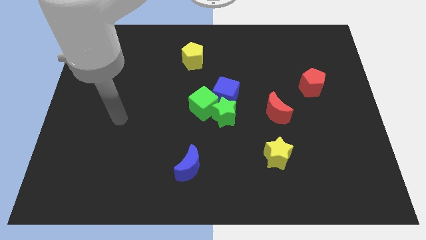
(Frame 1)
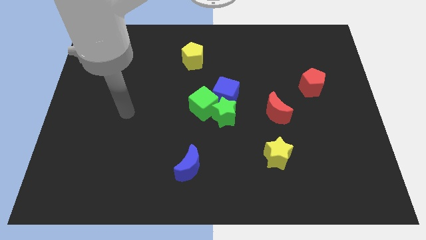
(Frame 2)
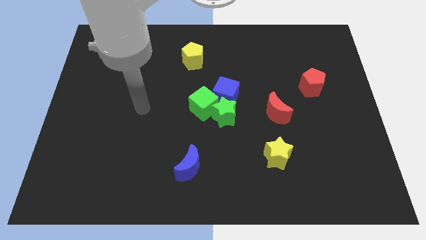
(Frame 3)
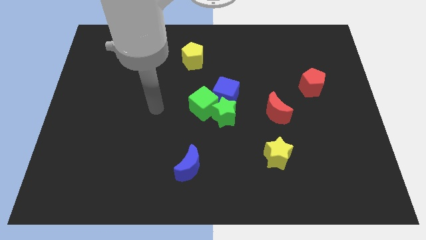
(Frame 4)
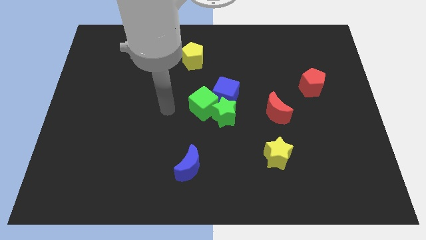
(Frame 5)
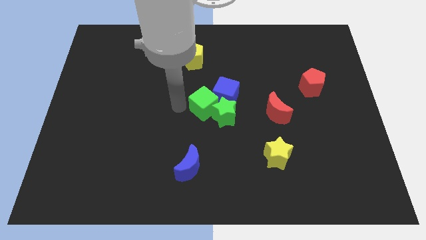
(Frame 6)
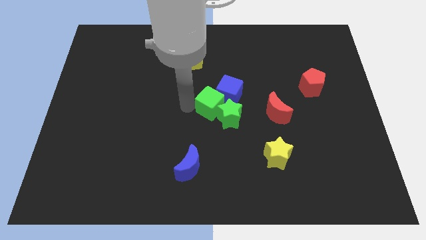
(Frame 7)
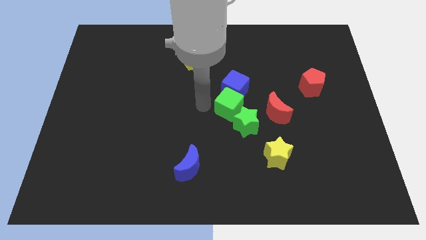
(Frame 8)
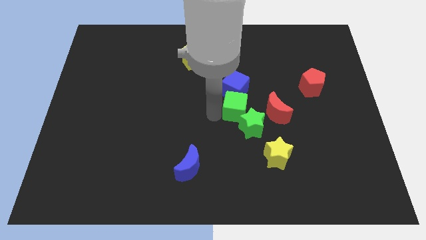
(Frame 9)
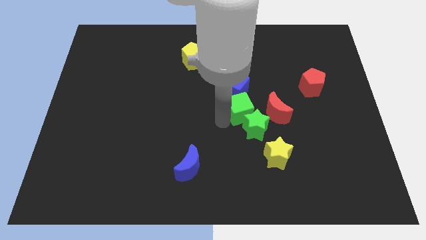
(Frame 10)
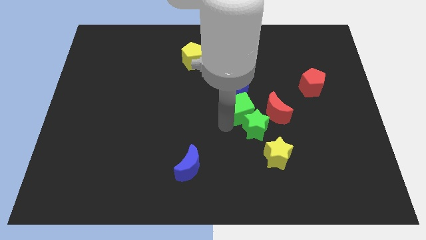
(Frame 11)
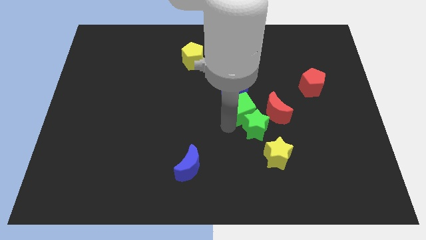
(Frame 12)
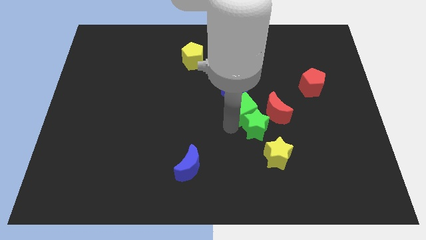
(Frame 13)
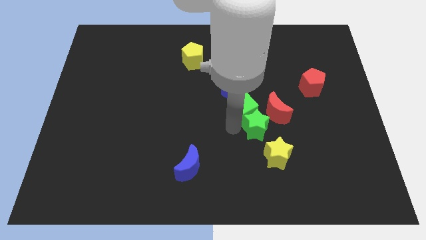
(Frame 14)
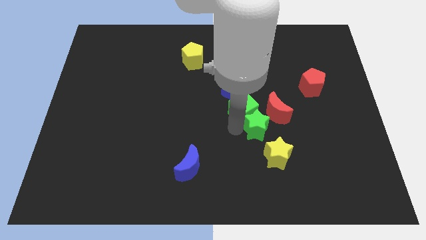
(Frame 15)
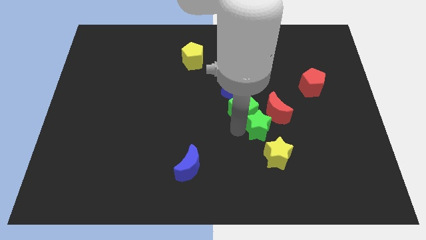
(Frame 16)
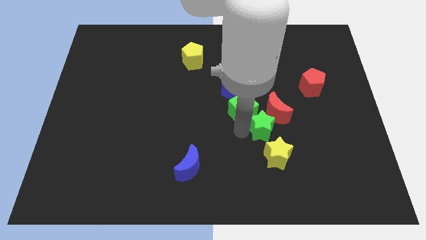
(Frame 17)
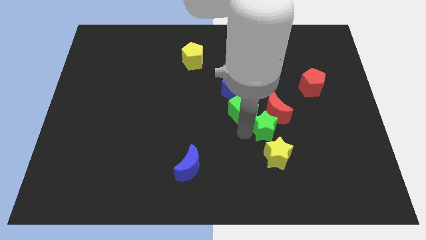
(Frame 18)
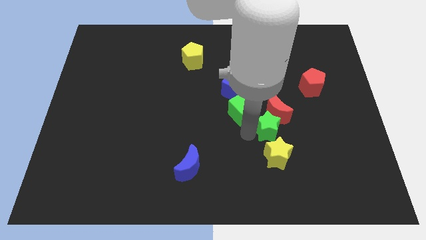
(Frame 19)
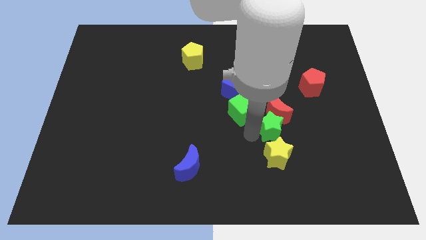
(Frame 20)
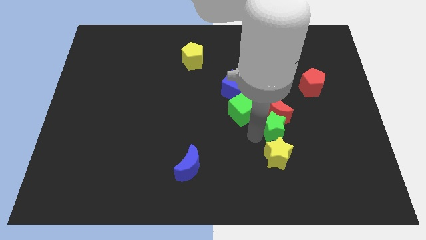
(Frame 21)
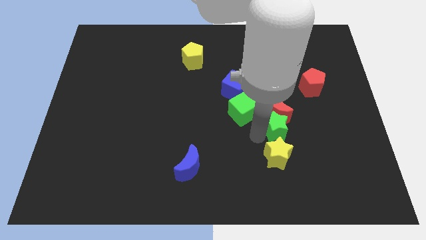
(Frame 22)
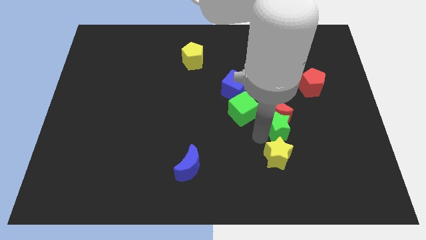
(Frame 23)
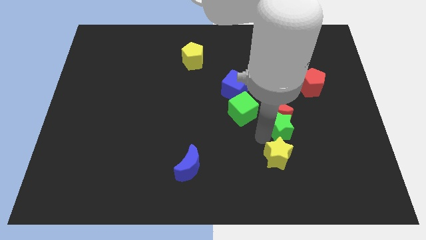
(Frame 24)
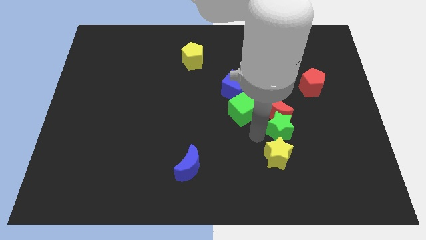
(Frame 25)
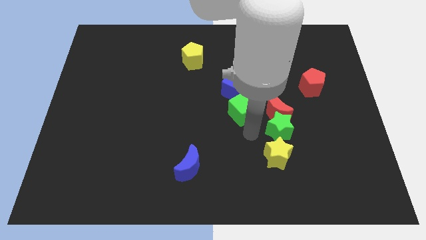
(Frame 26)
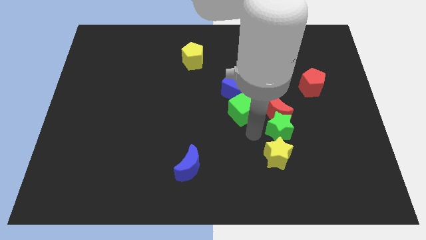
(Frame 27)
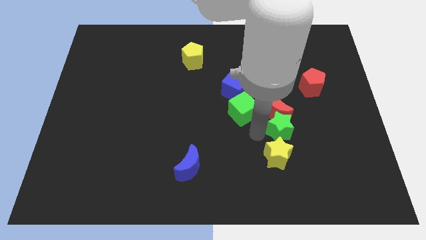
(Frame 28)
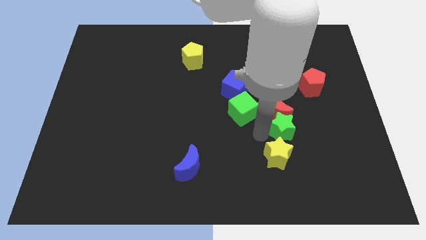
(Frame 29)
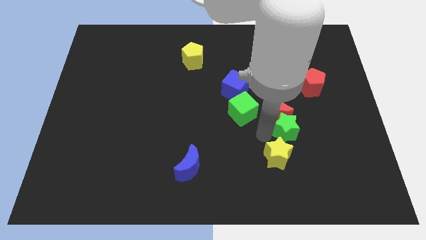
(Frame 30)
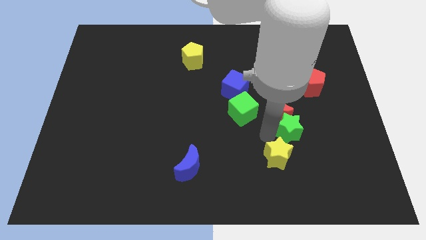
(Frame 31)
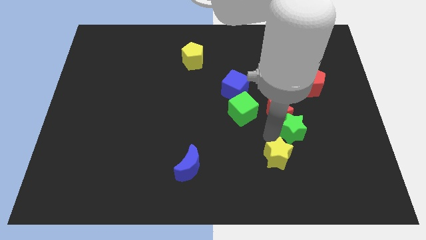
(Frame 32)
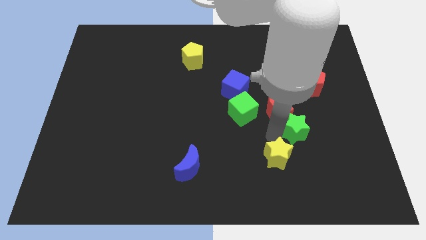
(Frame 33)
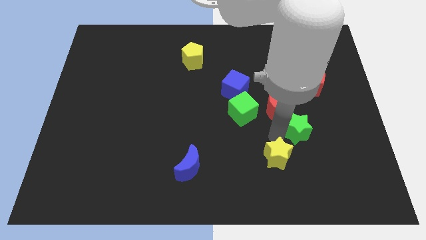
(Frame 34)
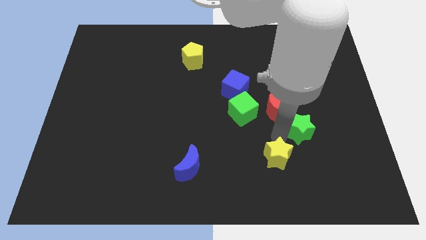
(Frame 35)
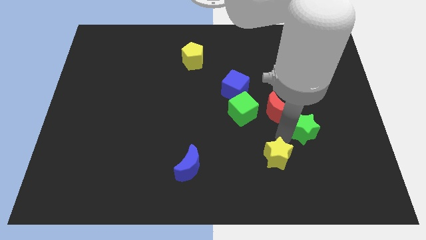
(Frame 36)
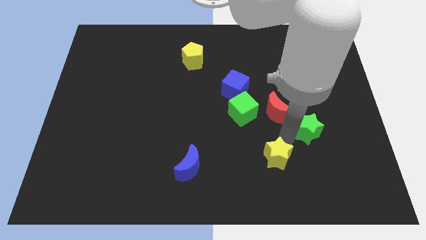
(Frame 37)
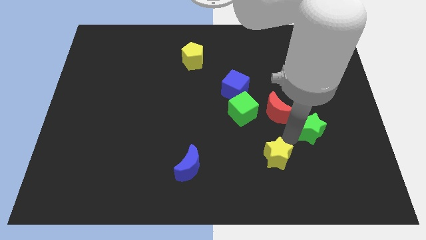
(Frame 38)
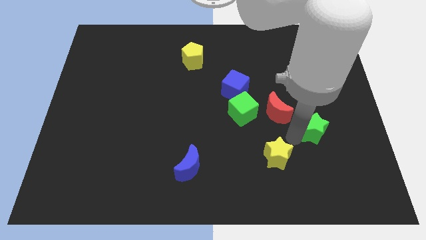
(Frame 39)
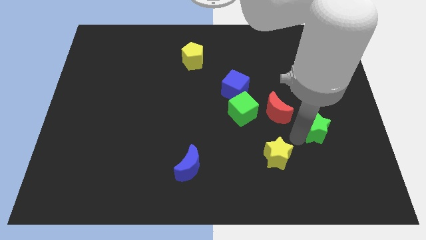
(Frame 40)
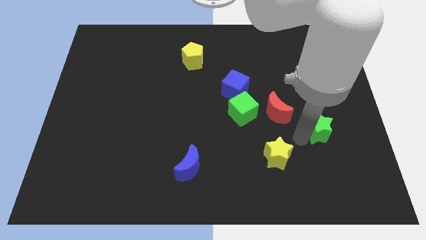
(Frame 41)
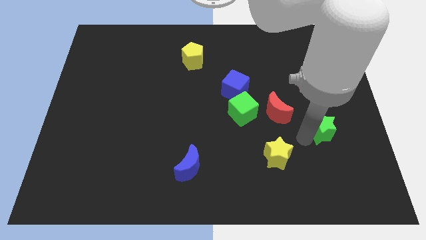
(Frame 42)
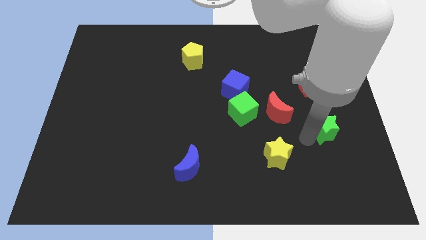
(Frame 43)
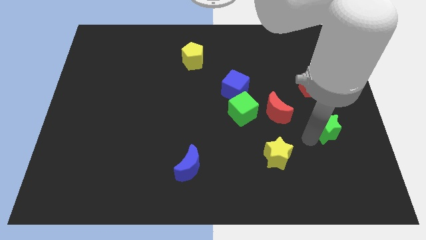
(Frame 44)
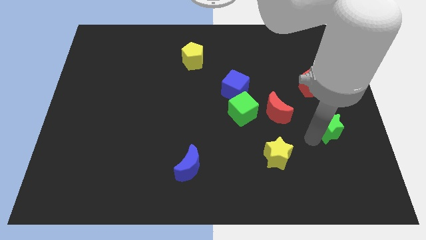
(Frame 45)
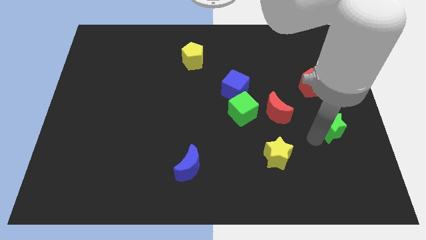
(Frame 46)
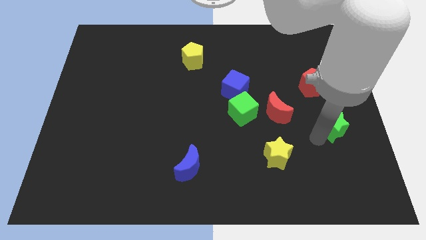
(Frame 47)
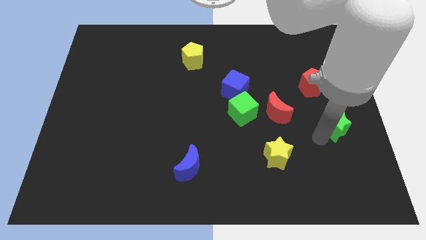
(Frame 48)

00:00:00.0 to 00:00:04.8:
put the green star to the right side of the board

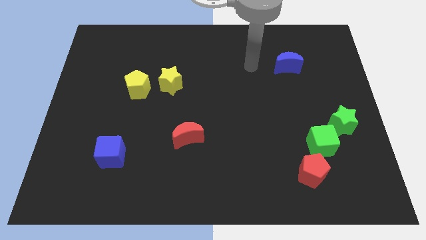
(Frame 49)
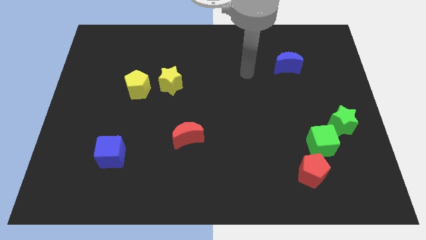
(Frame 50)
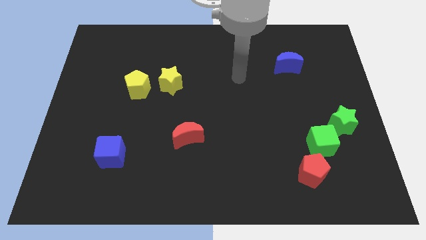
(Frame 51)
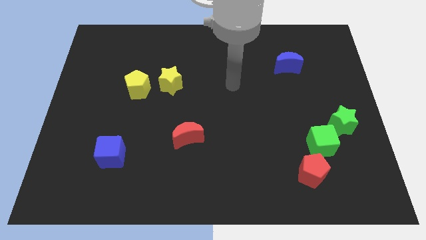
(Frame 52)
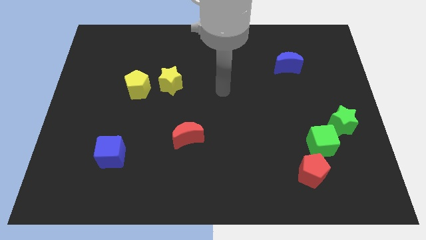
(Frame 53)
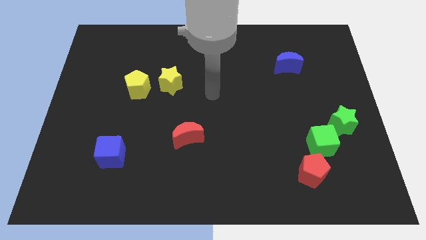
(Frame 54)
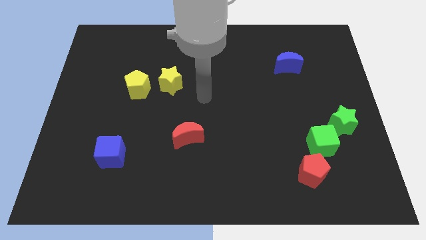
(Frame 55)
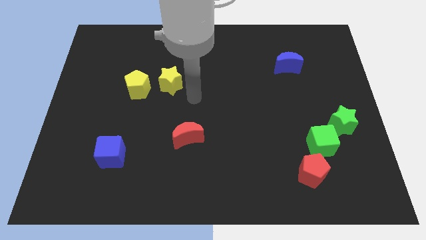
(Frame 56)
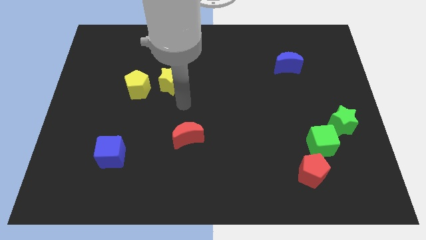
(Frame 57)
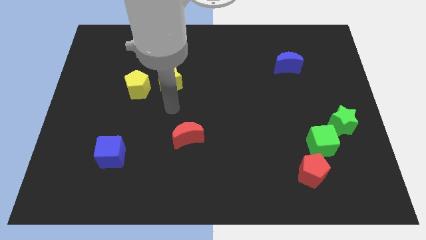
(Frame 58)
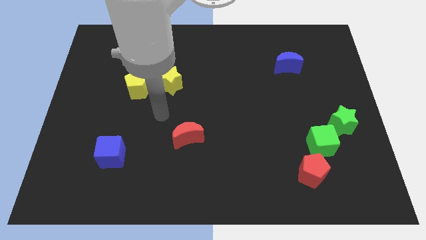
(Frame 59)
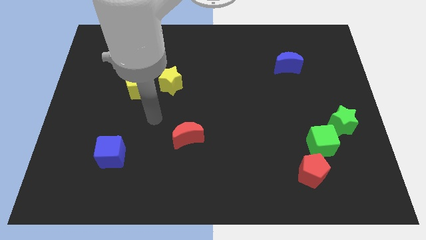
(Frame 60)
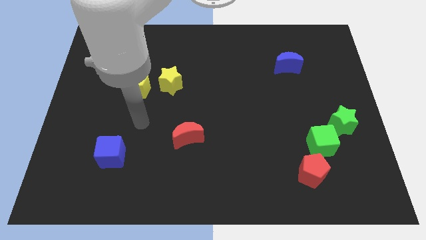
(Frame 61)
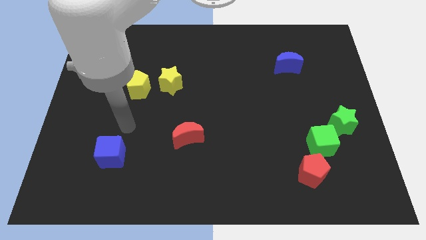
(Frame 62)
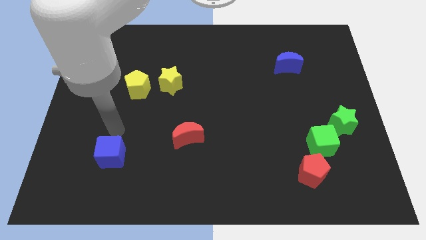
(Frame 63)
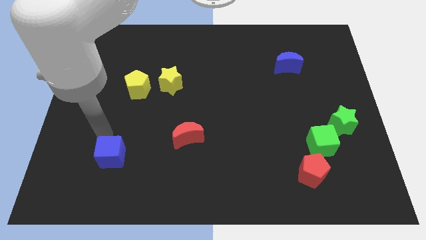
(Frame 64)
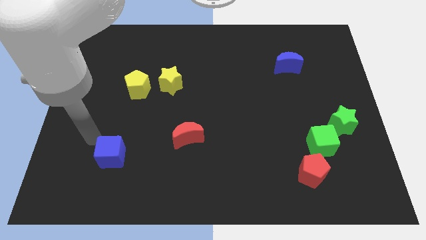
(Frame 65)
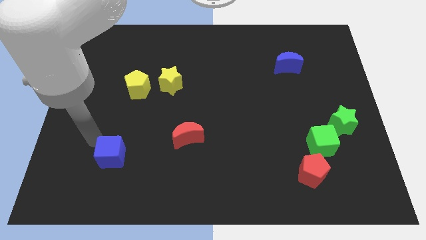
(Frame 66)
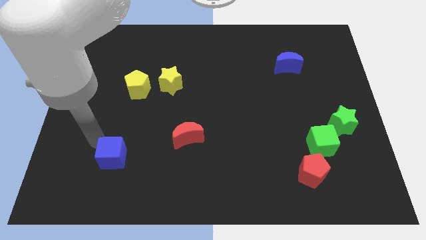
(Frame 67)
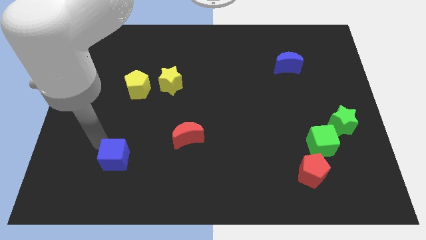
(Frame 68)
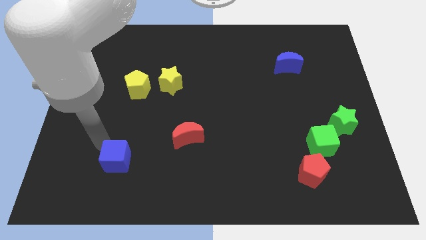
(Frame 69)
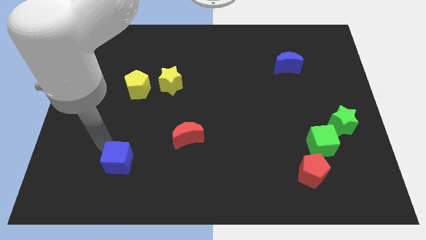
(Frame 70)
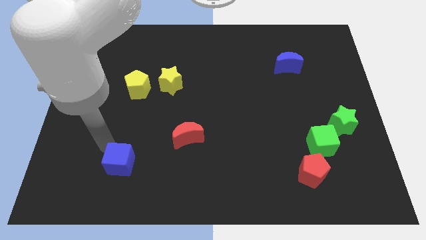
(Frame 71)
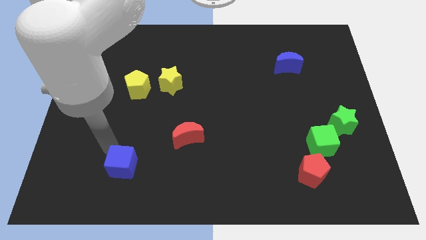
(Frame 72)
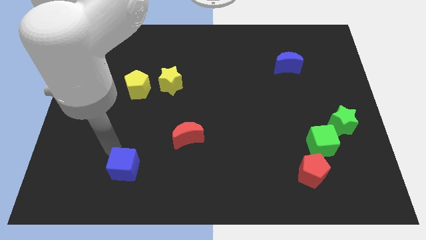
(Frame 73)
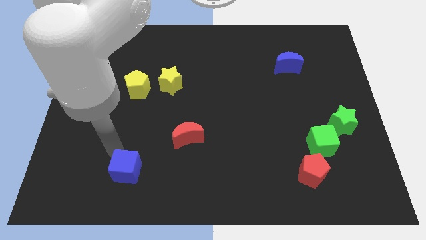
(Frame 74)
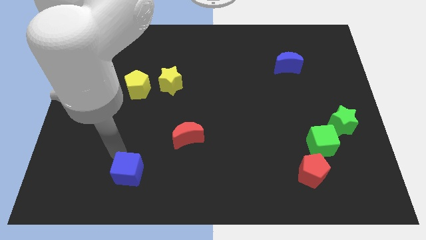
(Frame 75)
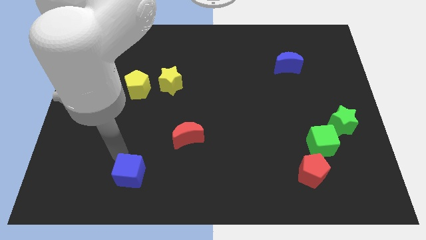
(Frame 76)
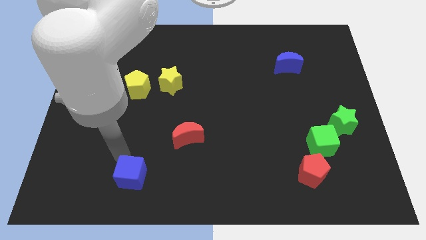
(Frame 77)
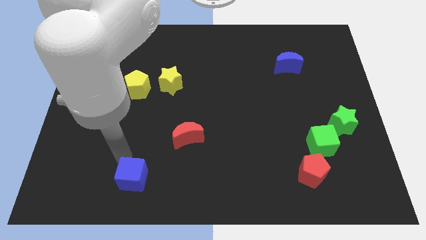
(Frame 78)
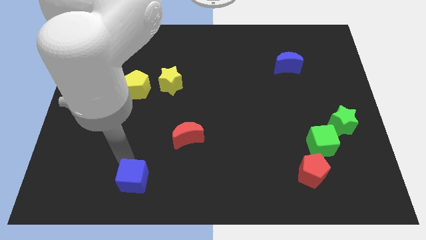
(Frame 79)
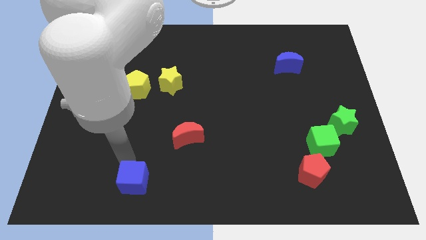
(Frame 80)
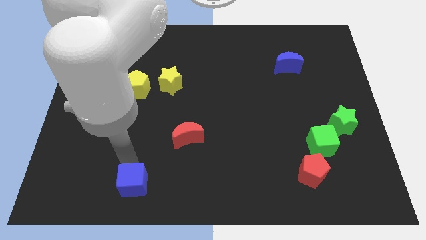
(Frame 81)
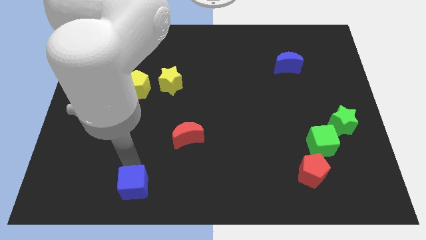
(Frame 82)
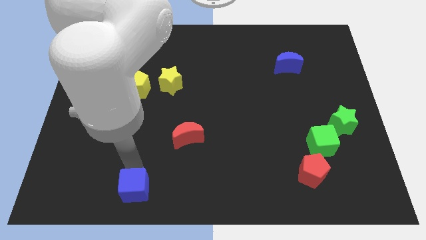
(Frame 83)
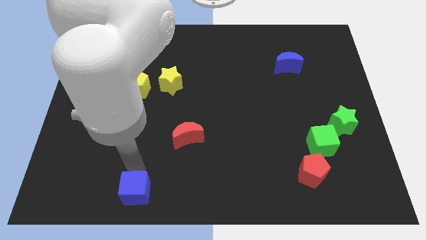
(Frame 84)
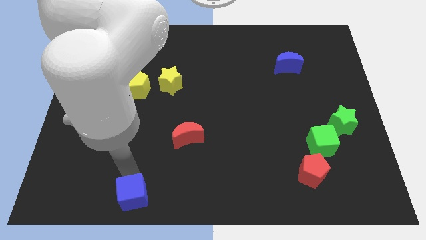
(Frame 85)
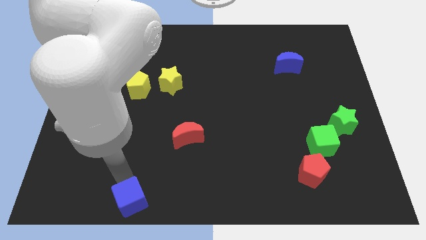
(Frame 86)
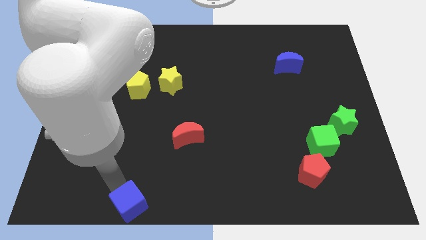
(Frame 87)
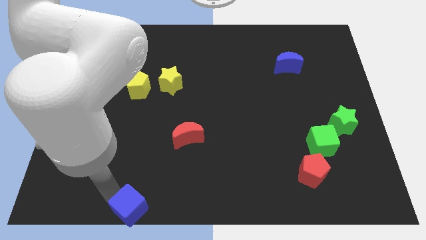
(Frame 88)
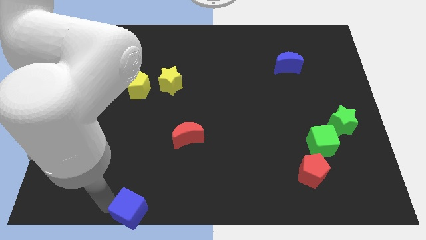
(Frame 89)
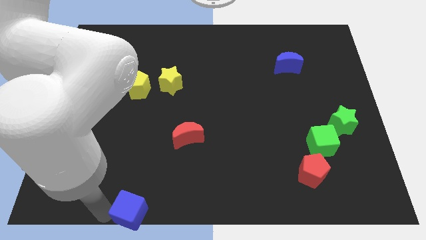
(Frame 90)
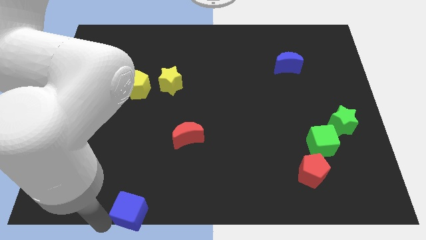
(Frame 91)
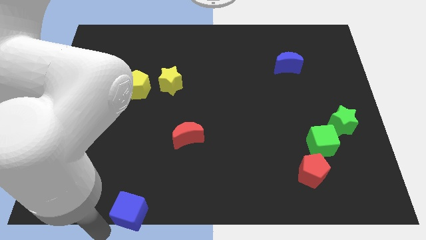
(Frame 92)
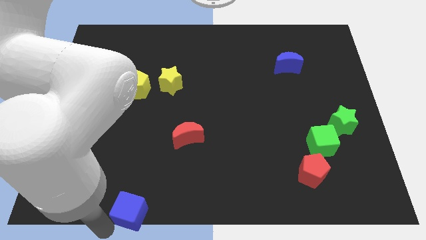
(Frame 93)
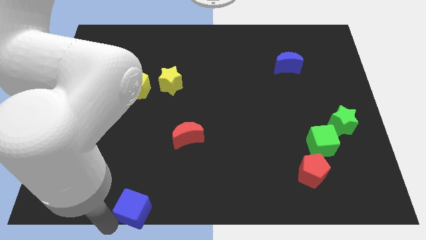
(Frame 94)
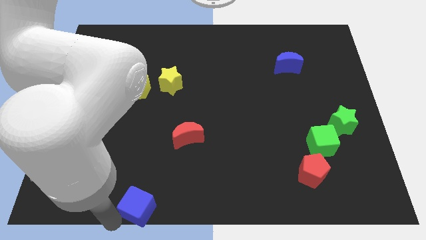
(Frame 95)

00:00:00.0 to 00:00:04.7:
slide the blue cube to the bottom side
